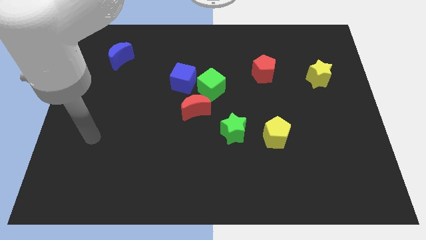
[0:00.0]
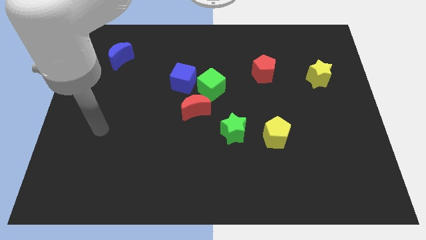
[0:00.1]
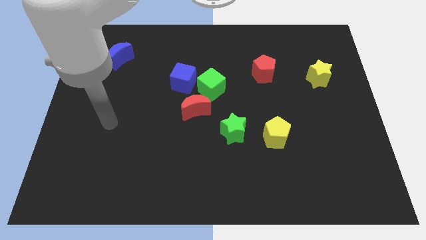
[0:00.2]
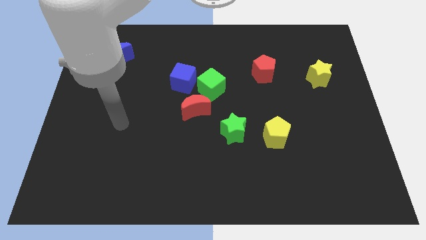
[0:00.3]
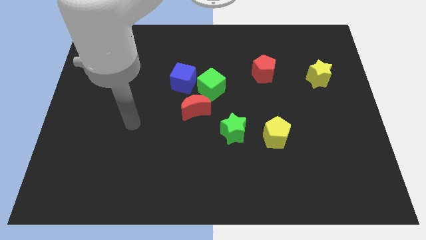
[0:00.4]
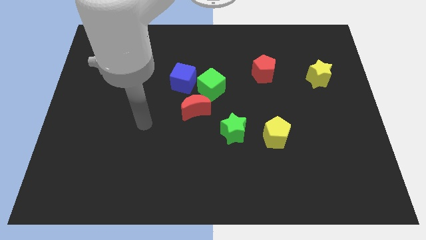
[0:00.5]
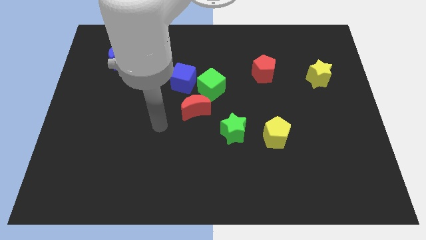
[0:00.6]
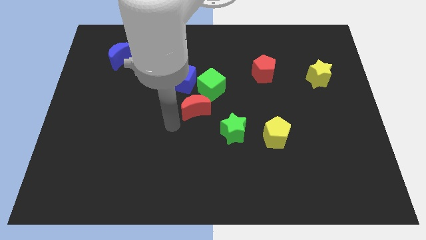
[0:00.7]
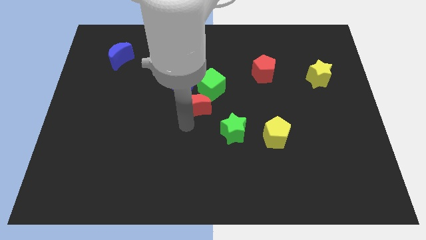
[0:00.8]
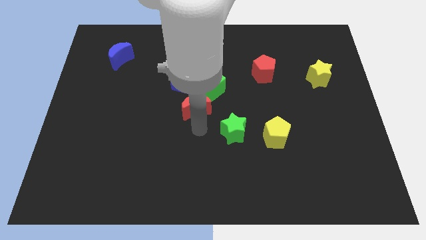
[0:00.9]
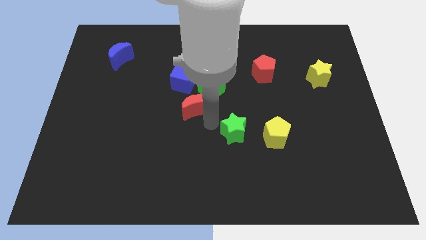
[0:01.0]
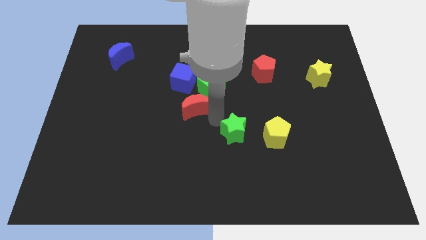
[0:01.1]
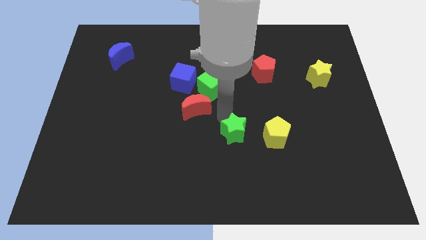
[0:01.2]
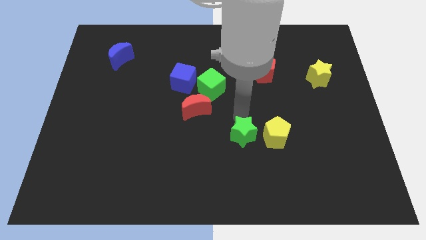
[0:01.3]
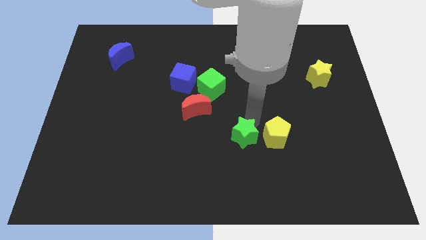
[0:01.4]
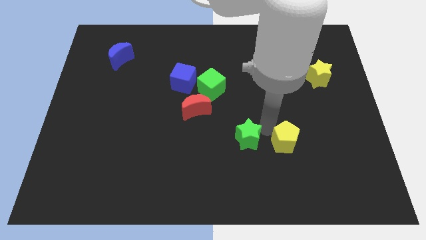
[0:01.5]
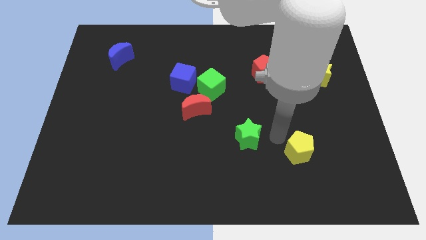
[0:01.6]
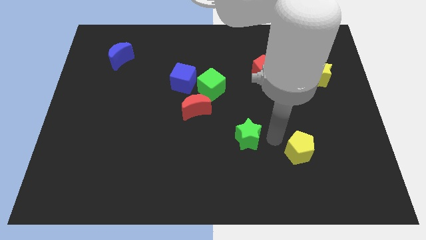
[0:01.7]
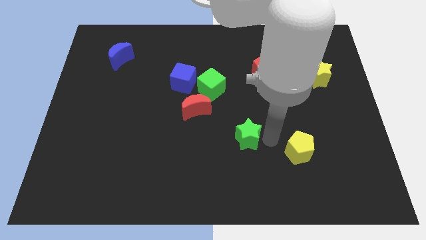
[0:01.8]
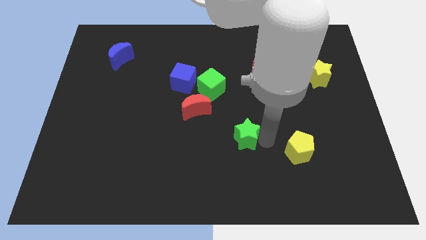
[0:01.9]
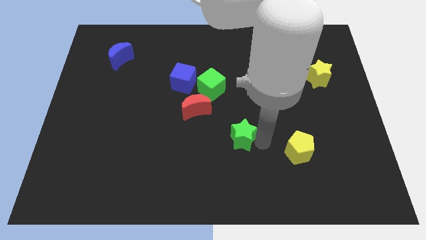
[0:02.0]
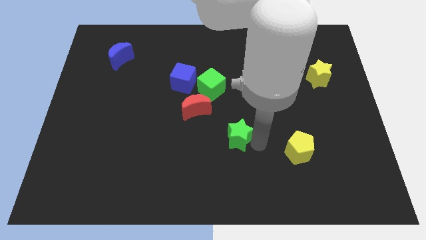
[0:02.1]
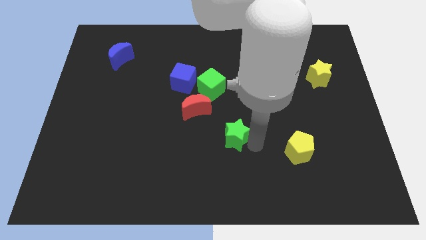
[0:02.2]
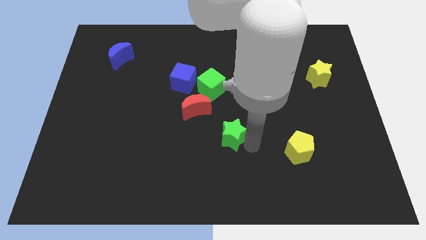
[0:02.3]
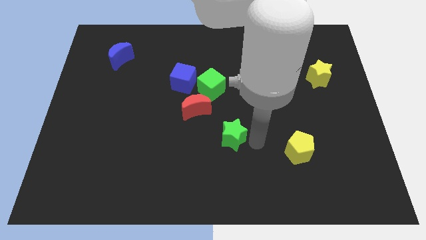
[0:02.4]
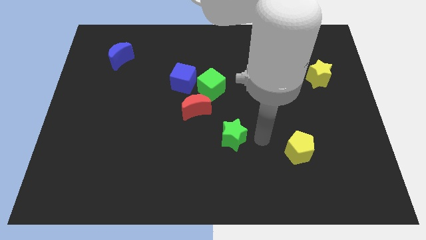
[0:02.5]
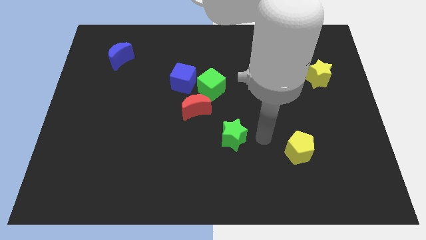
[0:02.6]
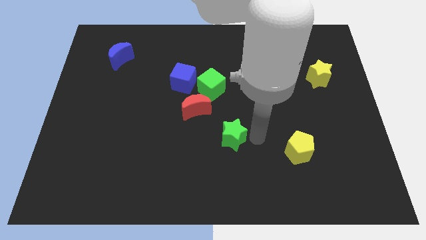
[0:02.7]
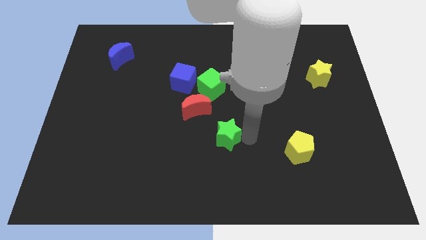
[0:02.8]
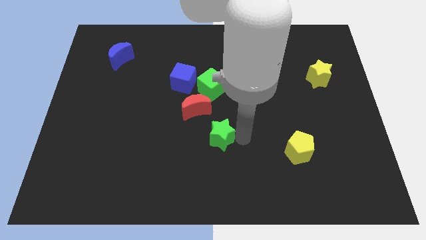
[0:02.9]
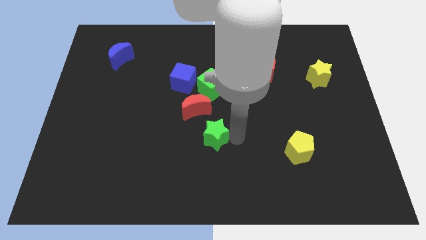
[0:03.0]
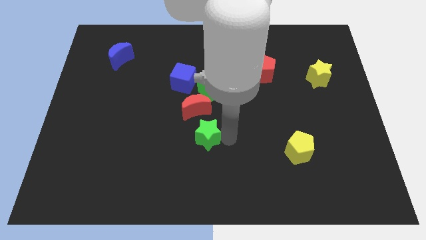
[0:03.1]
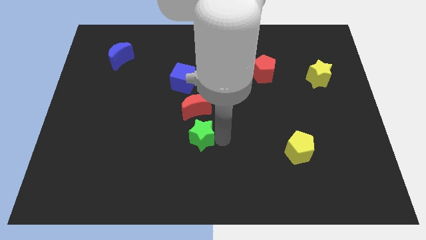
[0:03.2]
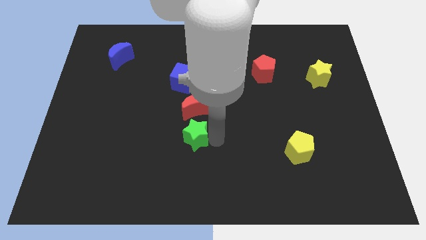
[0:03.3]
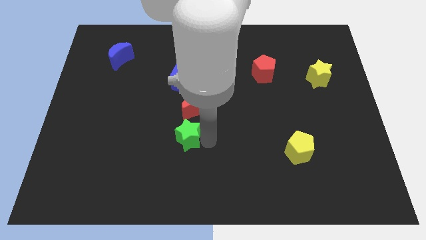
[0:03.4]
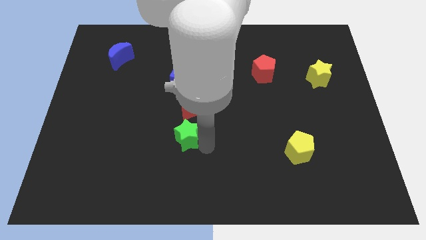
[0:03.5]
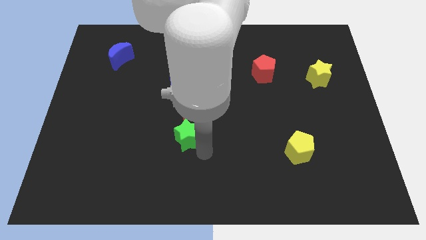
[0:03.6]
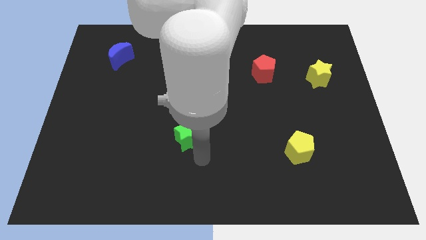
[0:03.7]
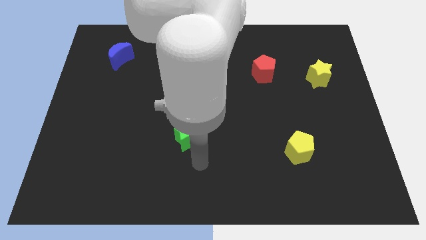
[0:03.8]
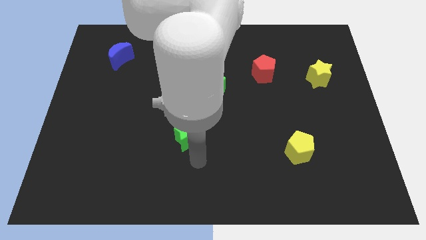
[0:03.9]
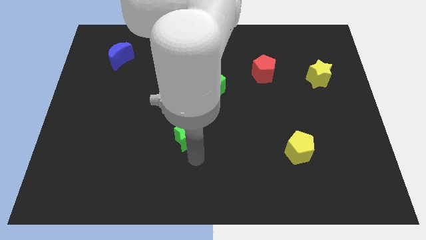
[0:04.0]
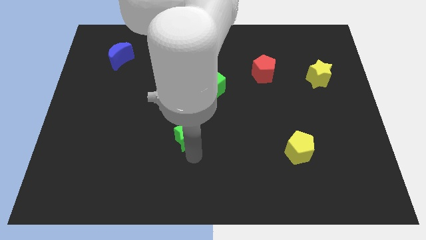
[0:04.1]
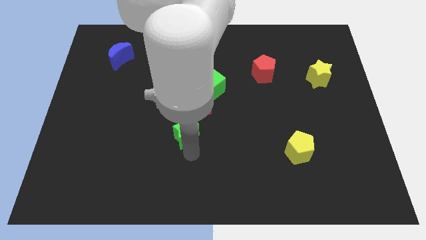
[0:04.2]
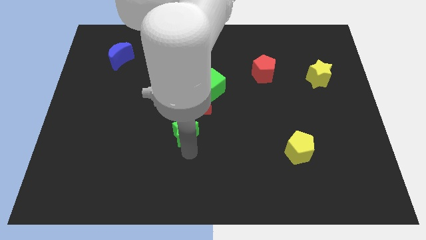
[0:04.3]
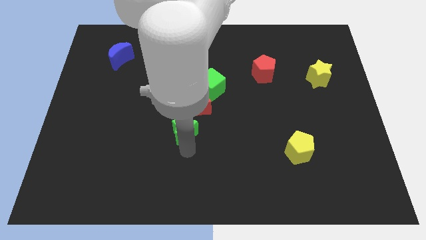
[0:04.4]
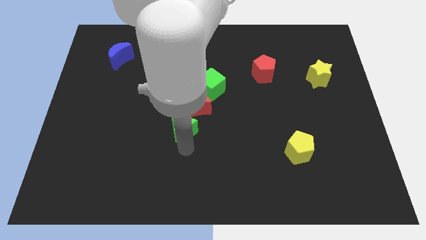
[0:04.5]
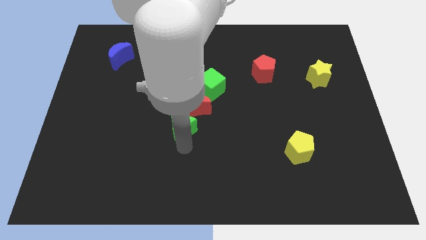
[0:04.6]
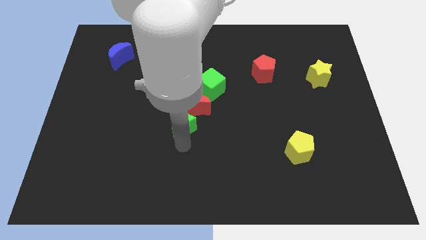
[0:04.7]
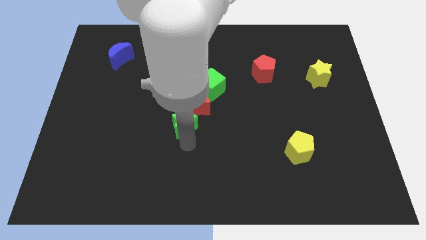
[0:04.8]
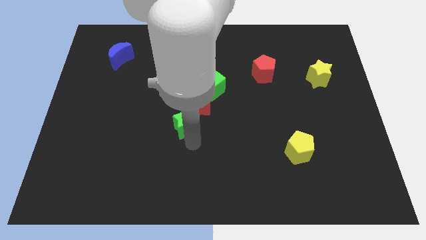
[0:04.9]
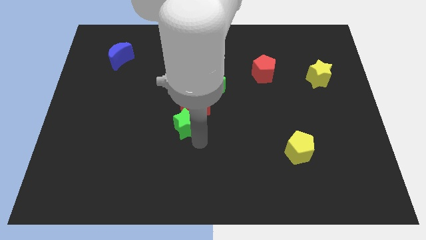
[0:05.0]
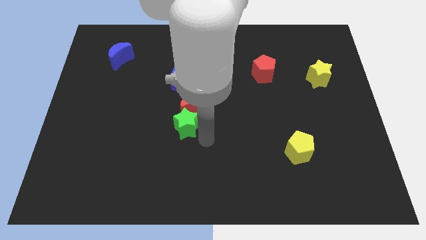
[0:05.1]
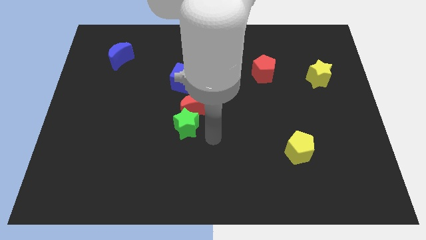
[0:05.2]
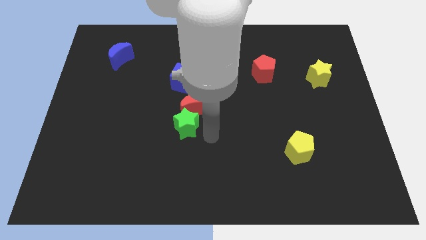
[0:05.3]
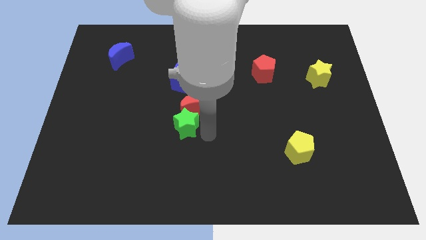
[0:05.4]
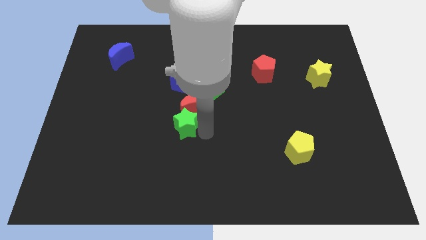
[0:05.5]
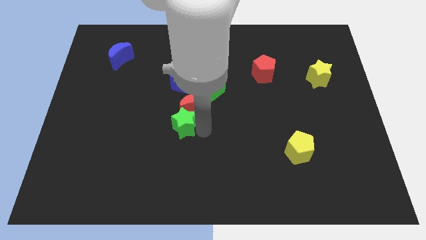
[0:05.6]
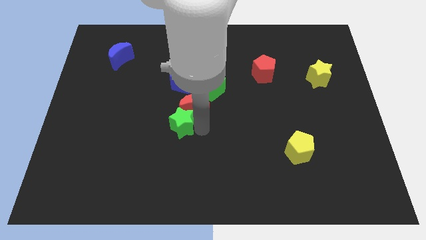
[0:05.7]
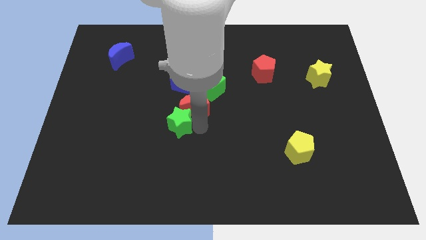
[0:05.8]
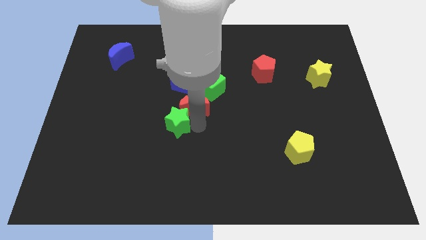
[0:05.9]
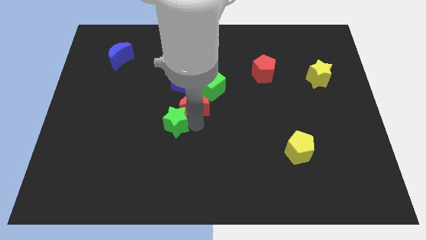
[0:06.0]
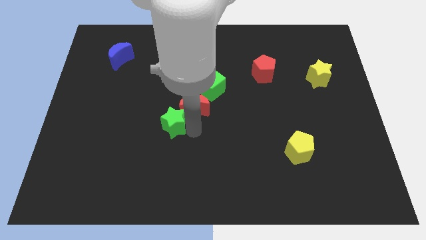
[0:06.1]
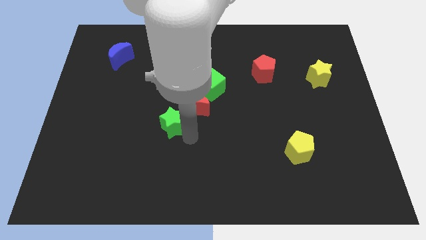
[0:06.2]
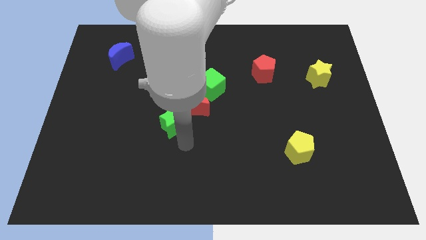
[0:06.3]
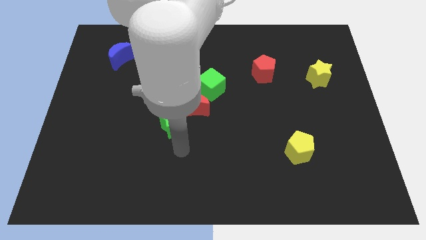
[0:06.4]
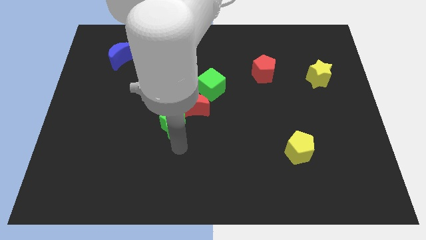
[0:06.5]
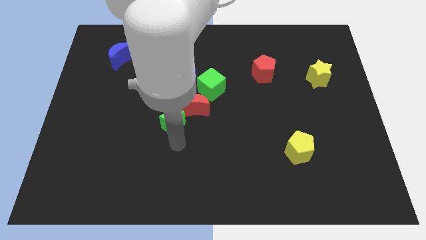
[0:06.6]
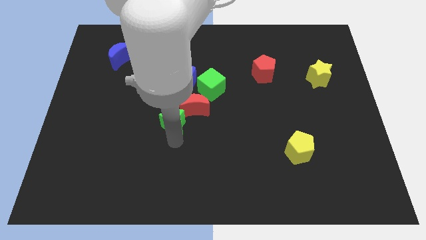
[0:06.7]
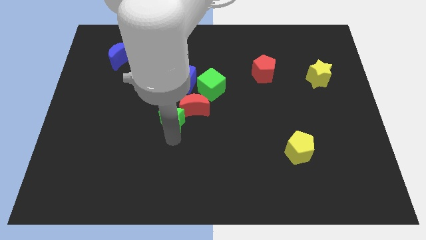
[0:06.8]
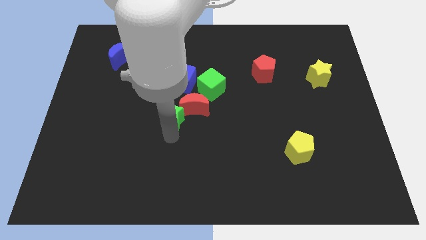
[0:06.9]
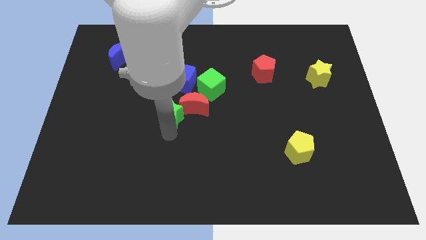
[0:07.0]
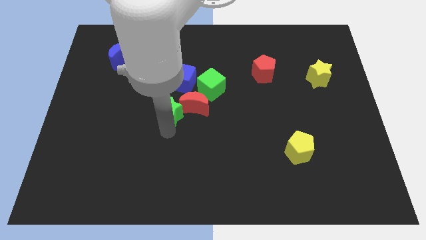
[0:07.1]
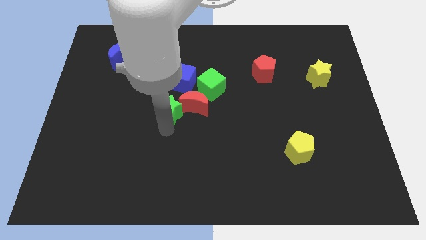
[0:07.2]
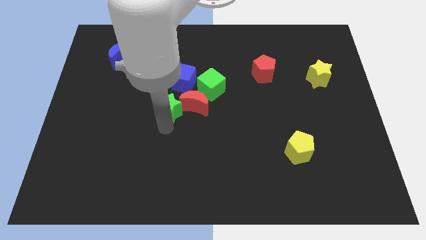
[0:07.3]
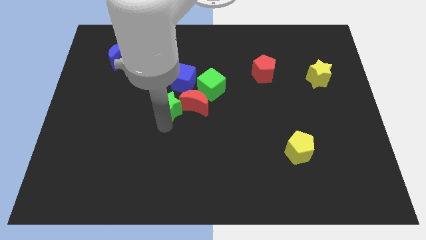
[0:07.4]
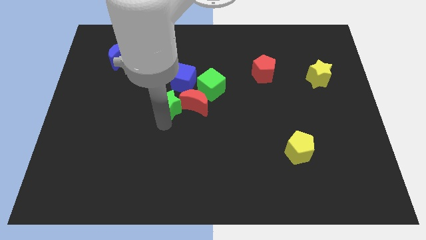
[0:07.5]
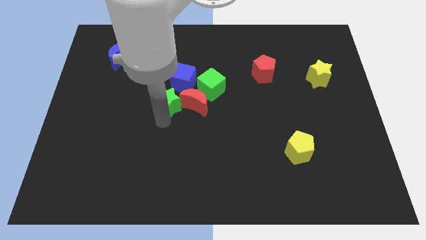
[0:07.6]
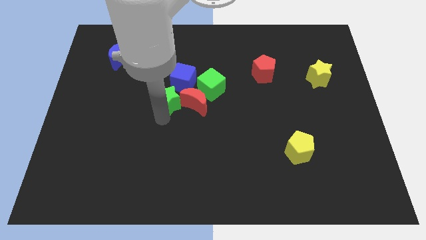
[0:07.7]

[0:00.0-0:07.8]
put the green star to the left of the green cube
